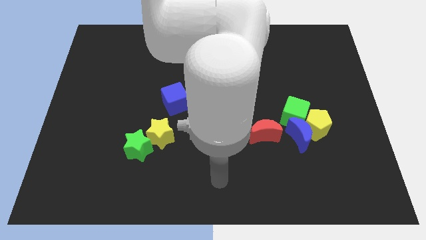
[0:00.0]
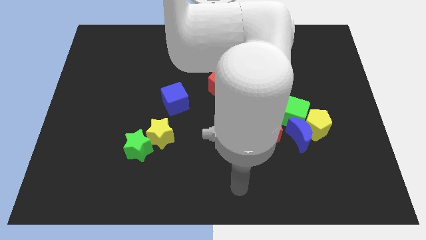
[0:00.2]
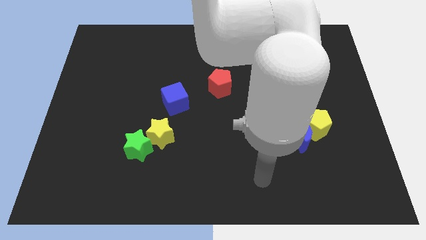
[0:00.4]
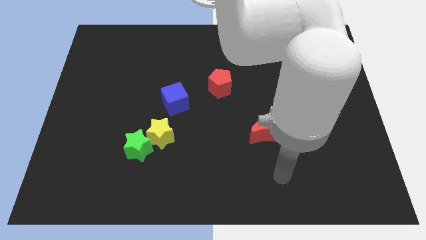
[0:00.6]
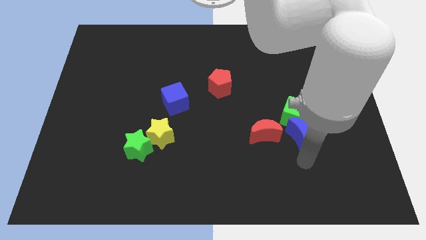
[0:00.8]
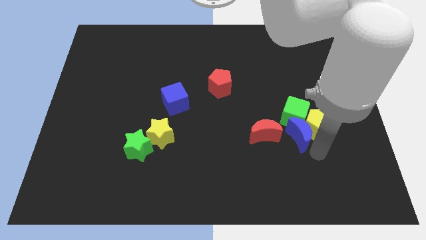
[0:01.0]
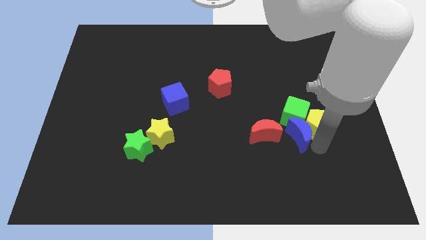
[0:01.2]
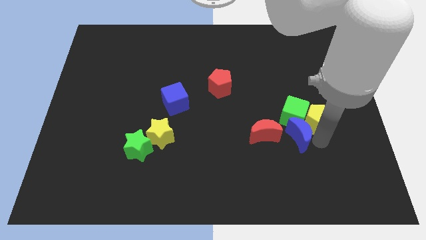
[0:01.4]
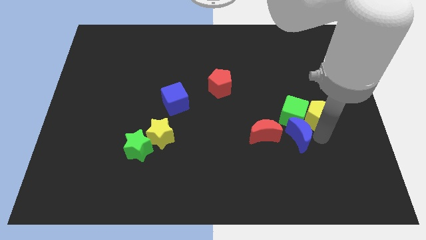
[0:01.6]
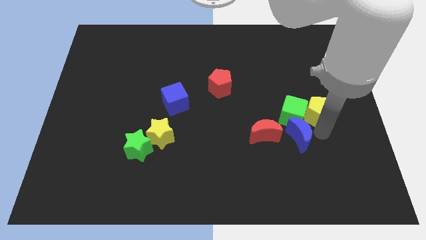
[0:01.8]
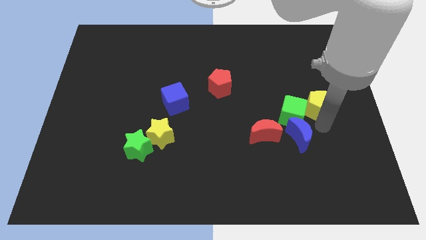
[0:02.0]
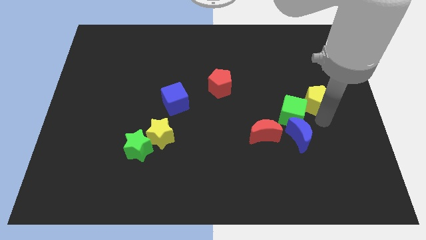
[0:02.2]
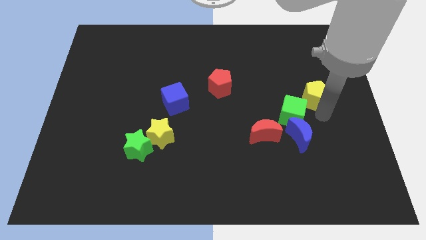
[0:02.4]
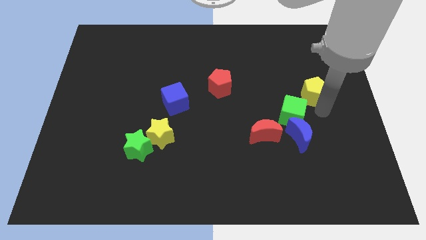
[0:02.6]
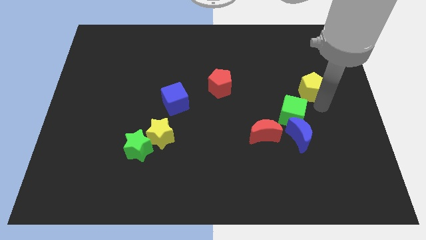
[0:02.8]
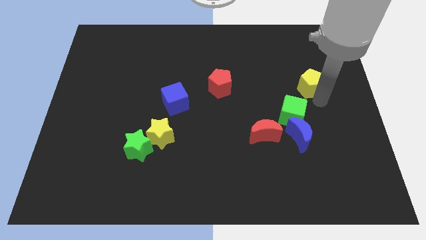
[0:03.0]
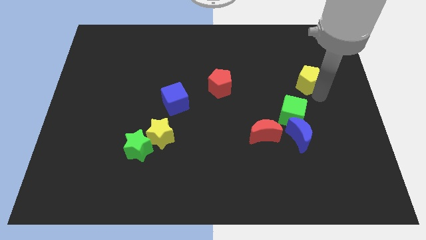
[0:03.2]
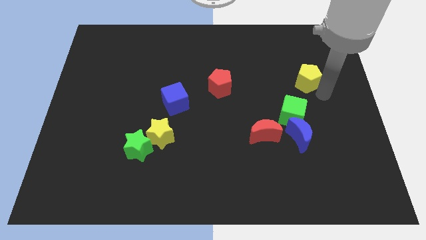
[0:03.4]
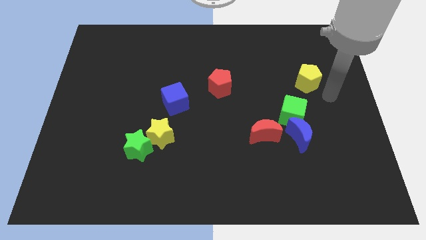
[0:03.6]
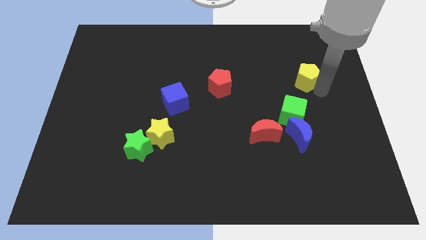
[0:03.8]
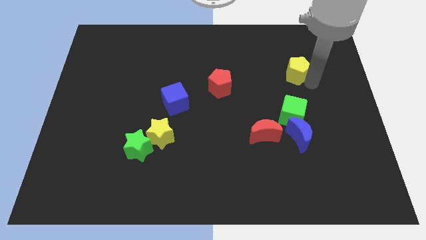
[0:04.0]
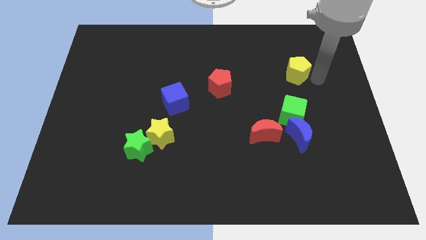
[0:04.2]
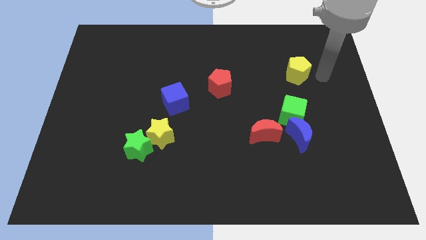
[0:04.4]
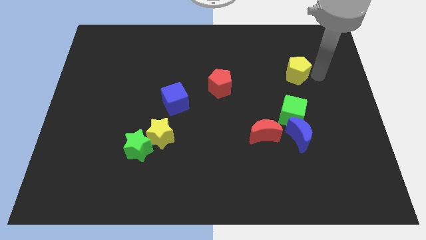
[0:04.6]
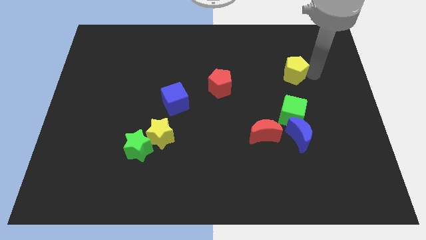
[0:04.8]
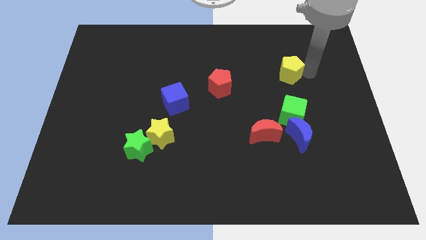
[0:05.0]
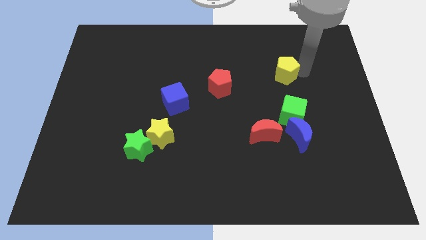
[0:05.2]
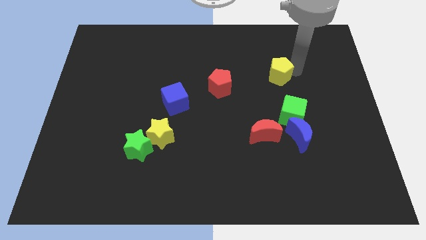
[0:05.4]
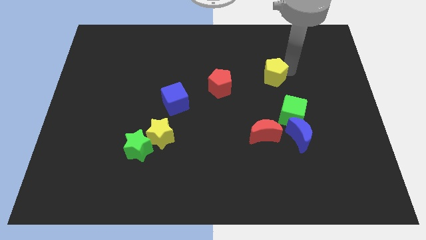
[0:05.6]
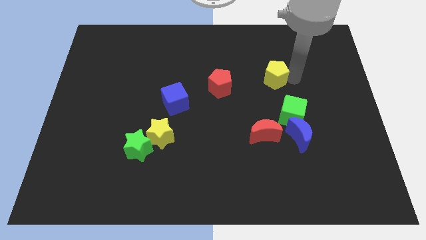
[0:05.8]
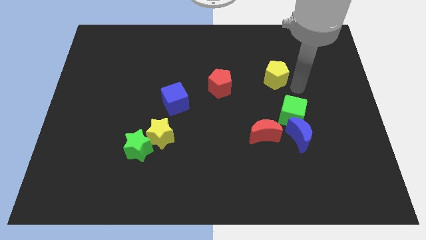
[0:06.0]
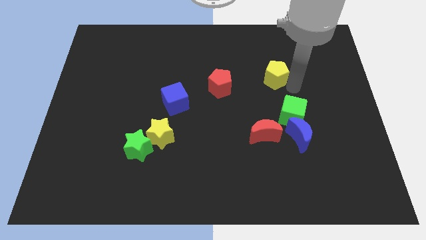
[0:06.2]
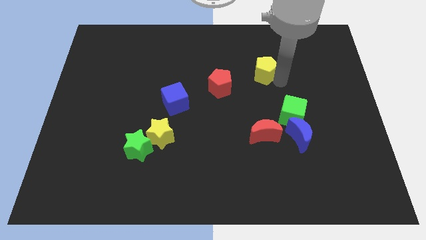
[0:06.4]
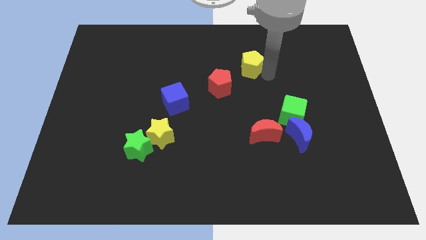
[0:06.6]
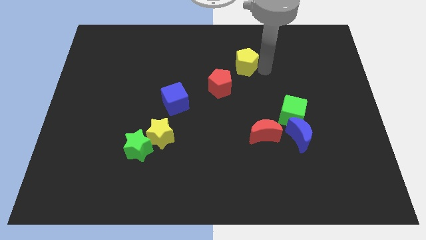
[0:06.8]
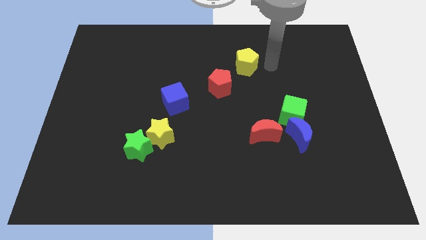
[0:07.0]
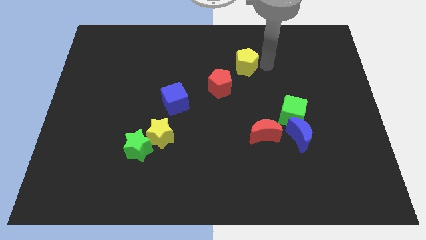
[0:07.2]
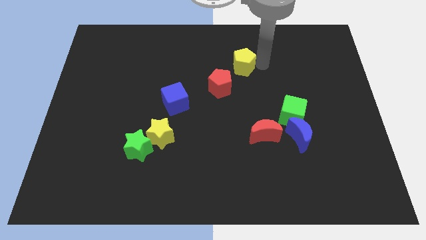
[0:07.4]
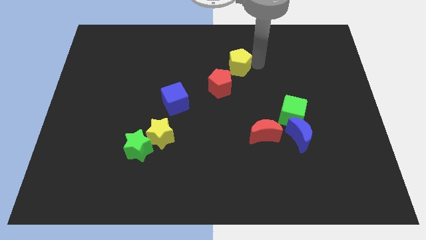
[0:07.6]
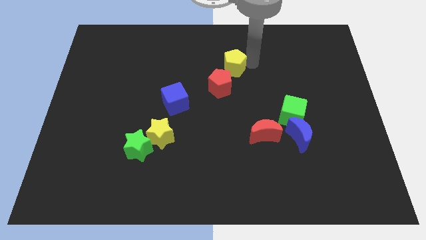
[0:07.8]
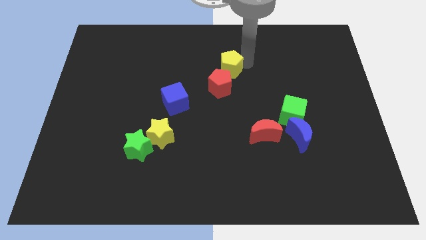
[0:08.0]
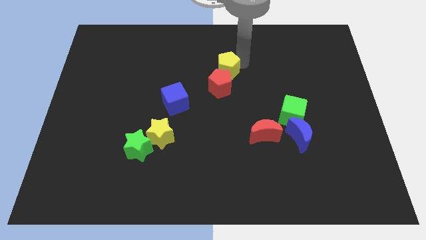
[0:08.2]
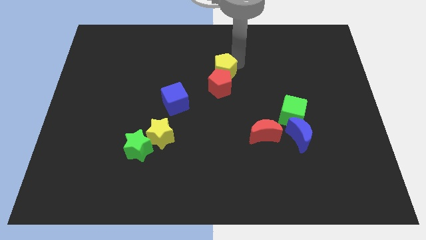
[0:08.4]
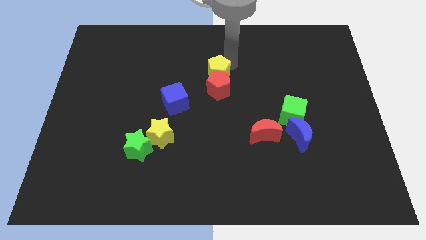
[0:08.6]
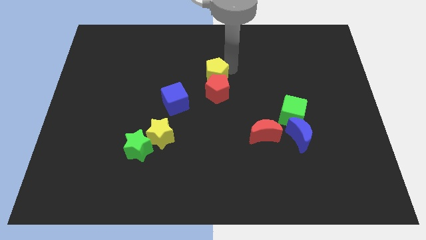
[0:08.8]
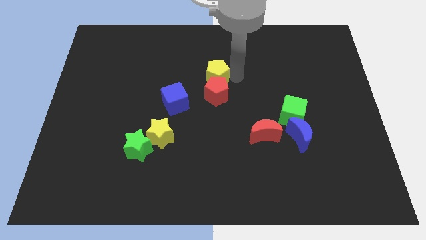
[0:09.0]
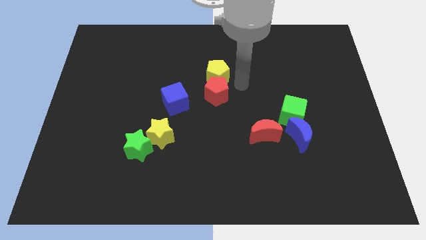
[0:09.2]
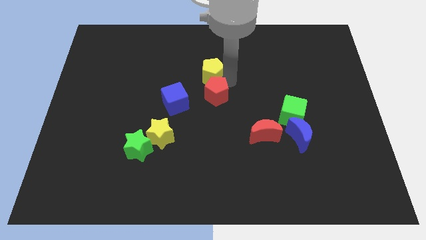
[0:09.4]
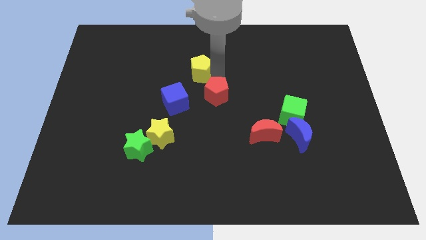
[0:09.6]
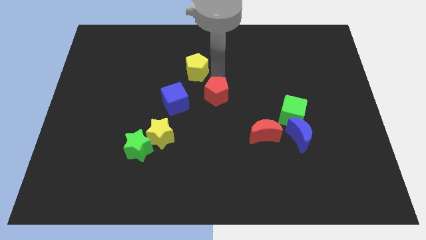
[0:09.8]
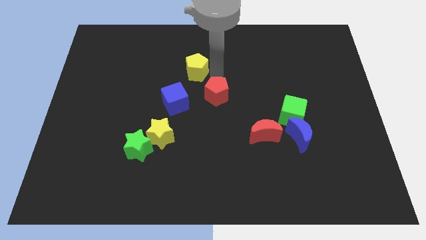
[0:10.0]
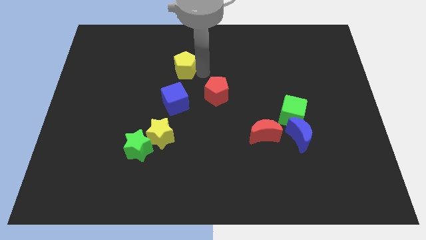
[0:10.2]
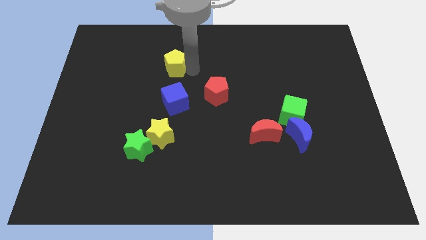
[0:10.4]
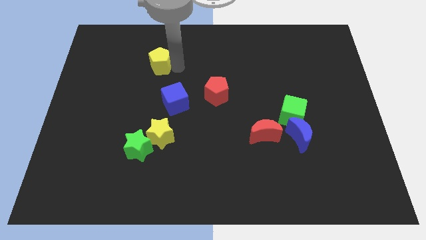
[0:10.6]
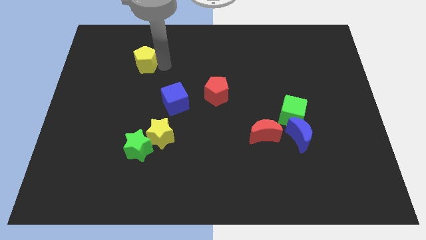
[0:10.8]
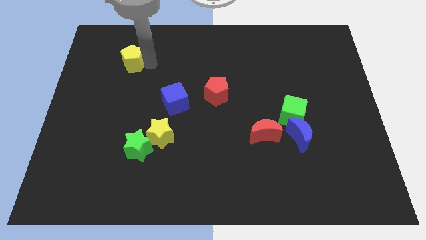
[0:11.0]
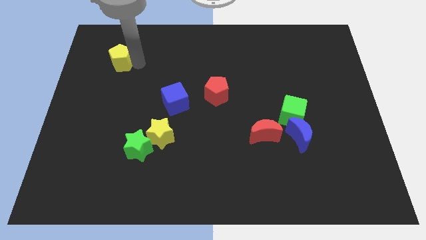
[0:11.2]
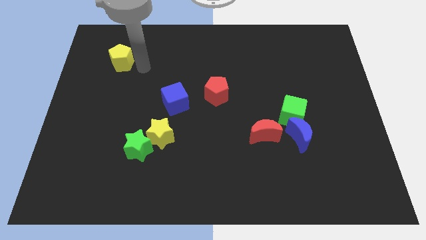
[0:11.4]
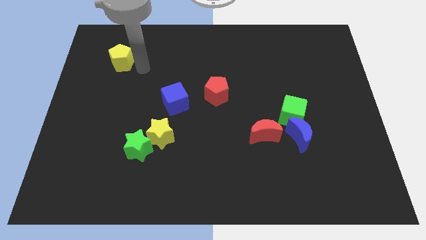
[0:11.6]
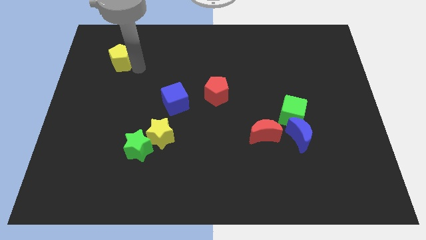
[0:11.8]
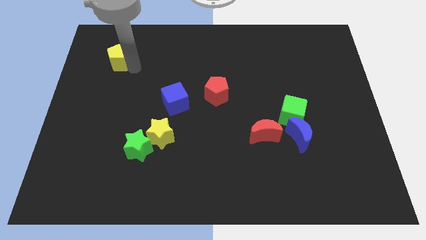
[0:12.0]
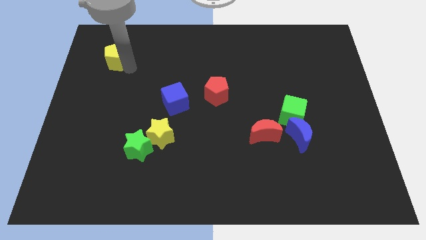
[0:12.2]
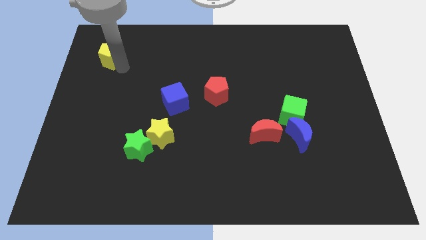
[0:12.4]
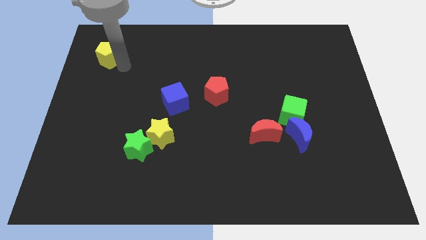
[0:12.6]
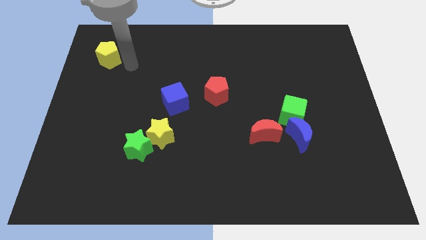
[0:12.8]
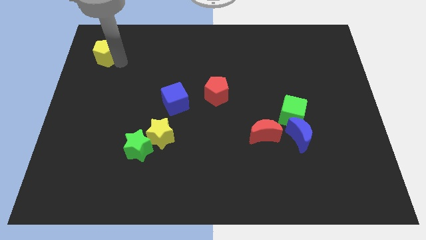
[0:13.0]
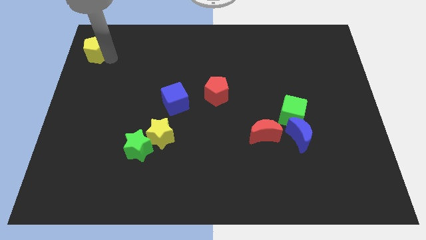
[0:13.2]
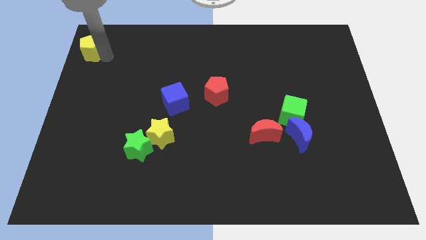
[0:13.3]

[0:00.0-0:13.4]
move the yellow pentagon to the top left

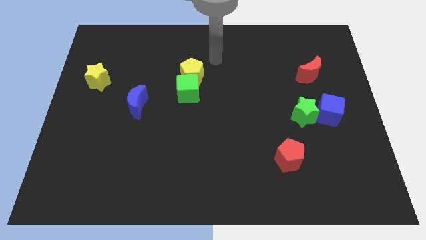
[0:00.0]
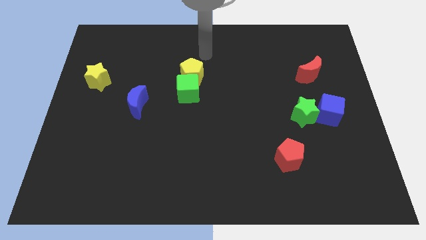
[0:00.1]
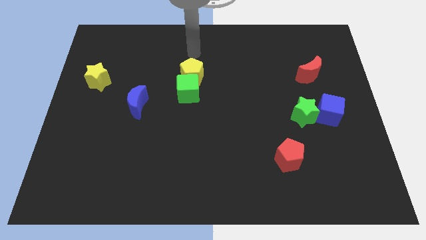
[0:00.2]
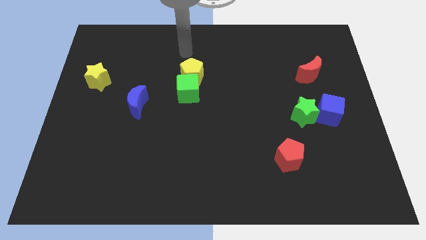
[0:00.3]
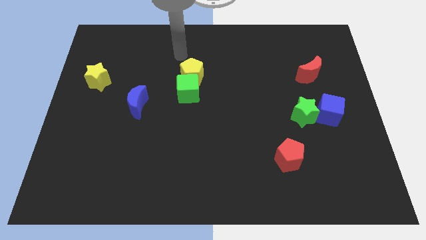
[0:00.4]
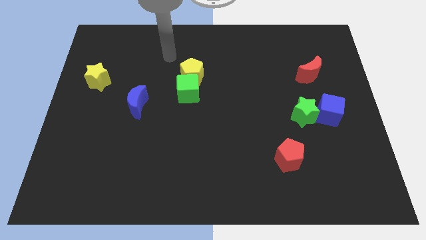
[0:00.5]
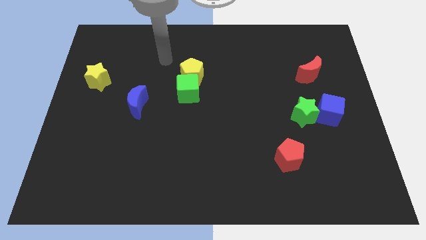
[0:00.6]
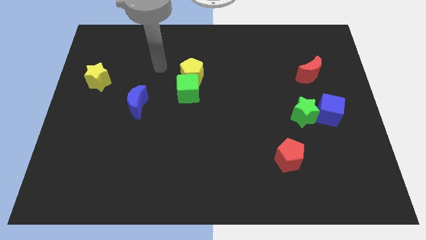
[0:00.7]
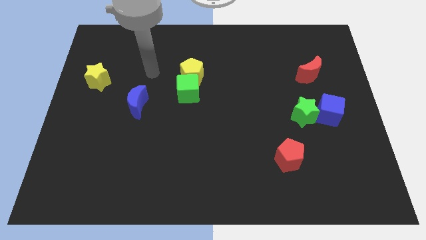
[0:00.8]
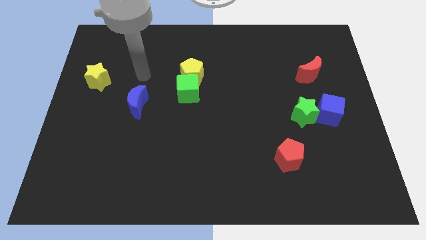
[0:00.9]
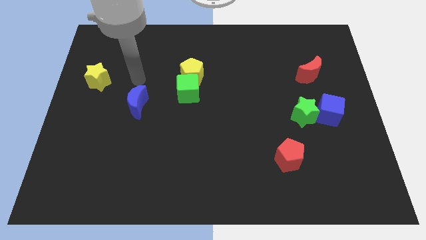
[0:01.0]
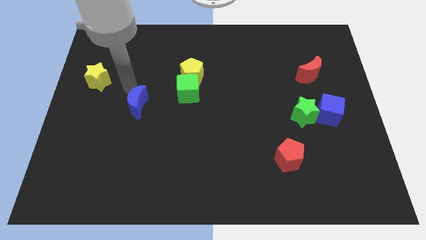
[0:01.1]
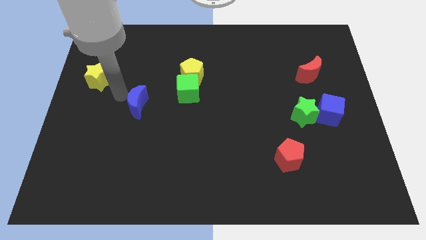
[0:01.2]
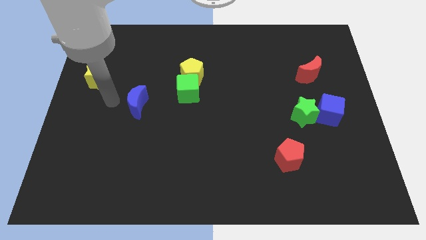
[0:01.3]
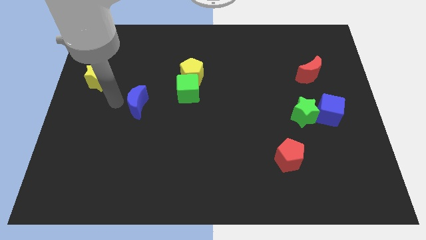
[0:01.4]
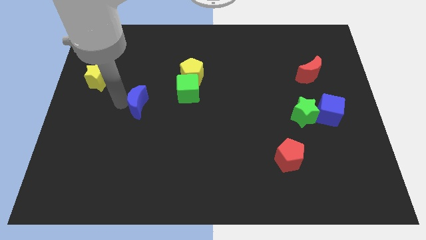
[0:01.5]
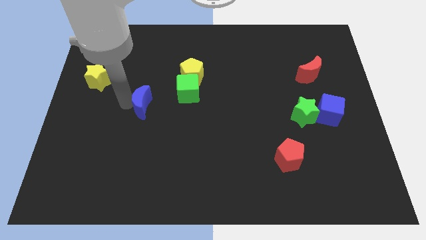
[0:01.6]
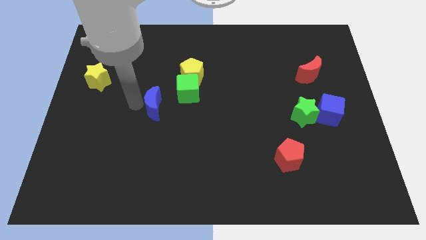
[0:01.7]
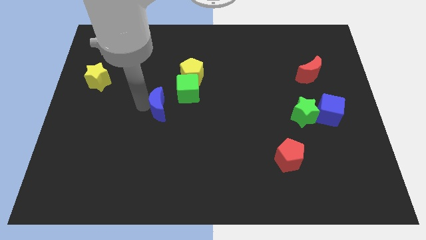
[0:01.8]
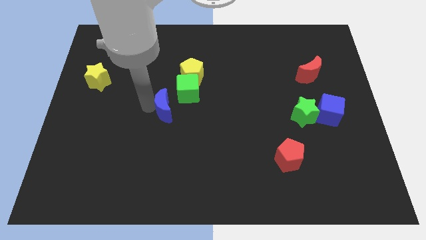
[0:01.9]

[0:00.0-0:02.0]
move the blue moon to the middle
